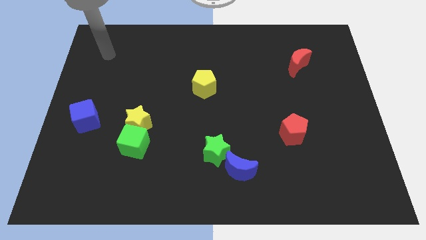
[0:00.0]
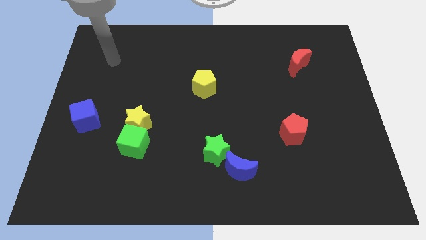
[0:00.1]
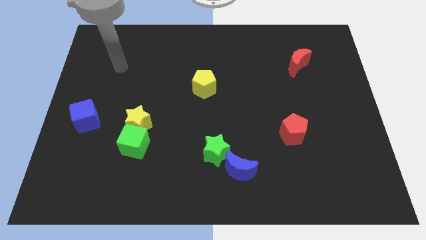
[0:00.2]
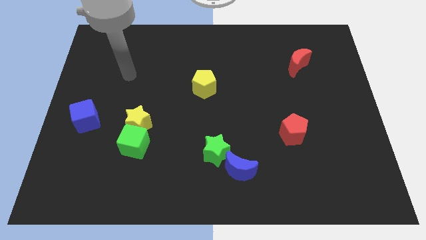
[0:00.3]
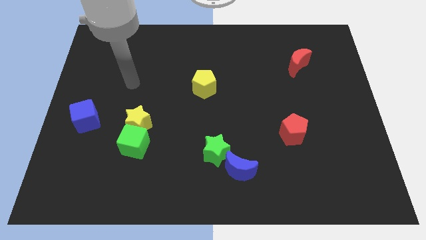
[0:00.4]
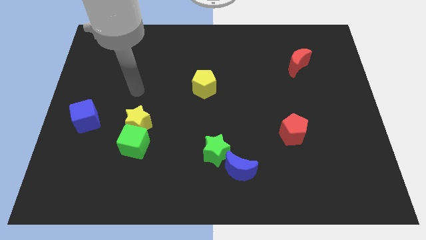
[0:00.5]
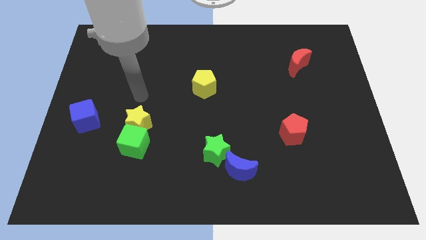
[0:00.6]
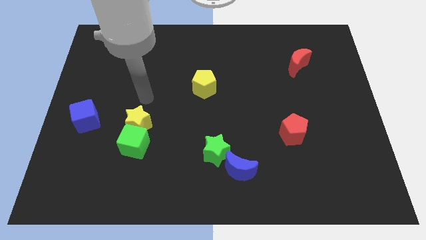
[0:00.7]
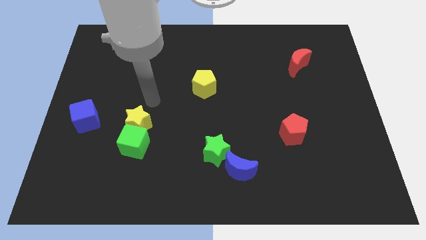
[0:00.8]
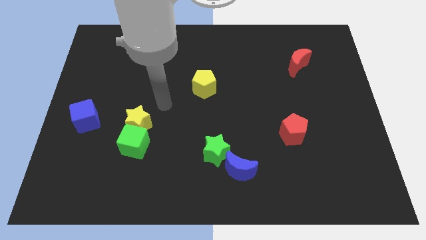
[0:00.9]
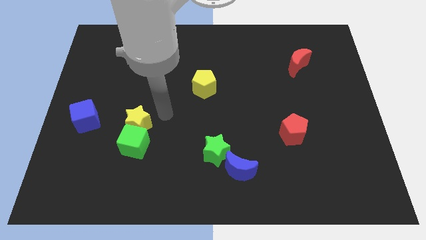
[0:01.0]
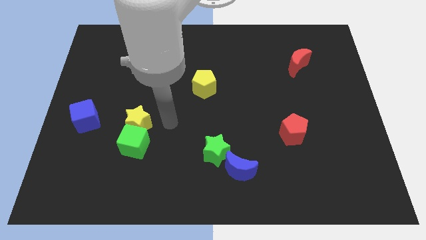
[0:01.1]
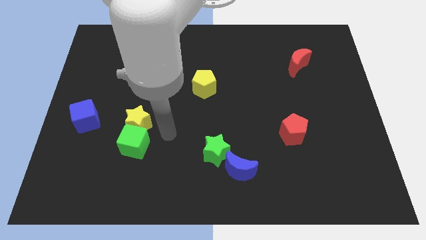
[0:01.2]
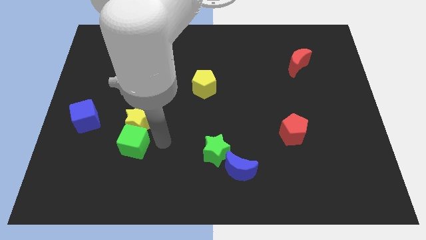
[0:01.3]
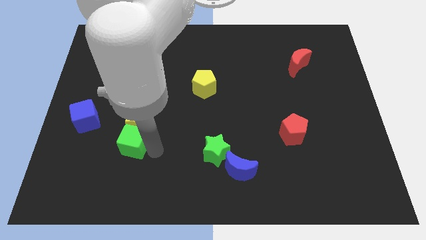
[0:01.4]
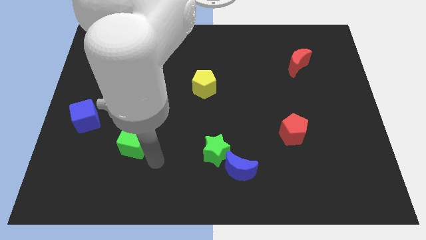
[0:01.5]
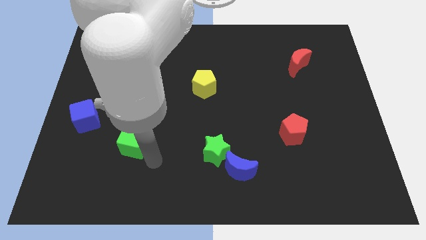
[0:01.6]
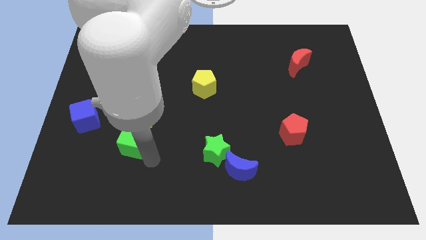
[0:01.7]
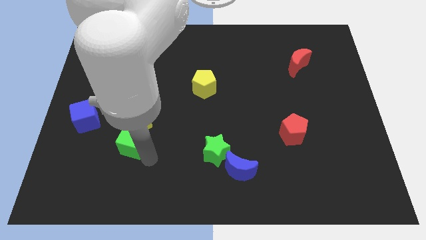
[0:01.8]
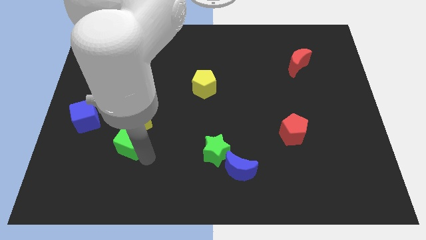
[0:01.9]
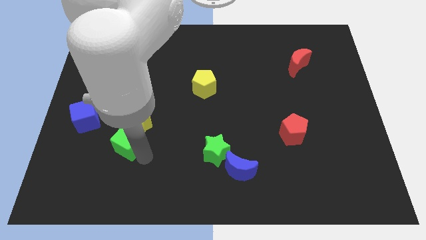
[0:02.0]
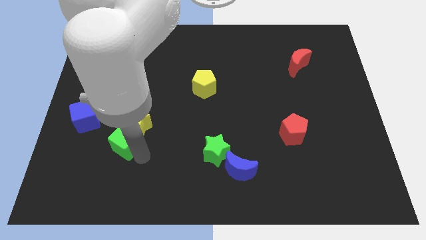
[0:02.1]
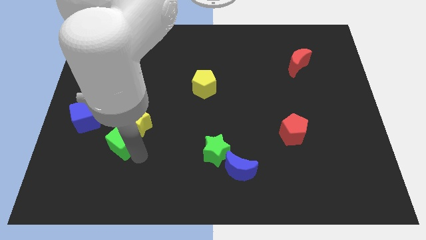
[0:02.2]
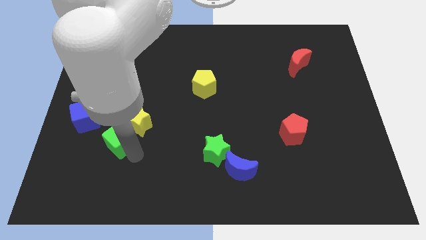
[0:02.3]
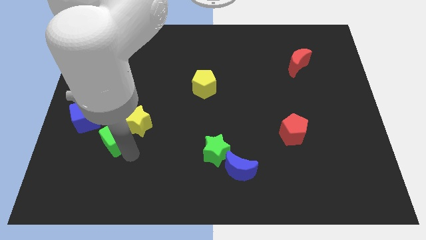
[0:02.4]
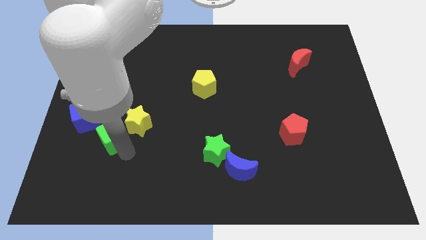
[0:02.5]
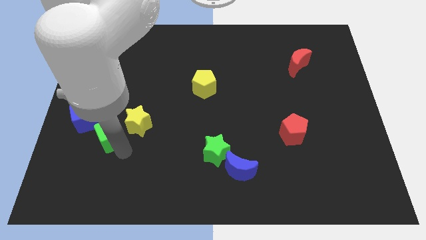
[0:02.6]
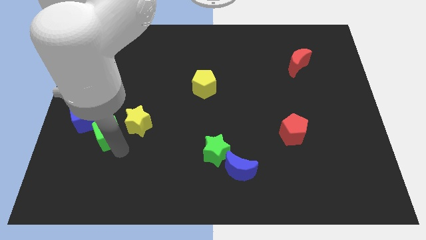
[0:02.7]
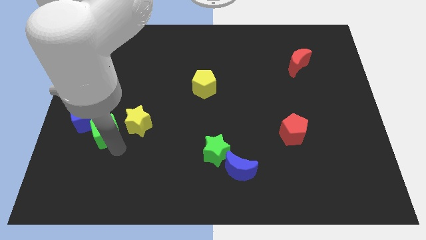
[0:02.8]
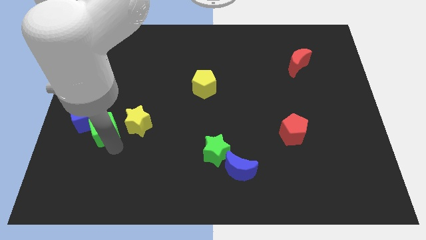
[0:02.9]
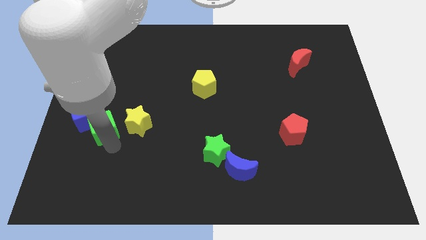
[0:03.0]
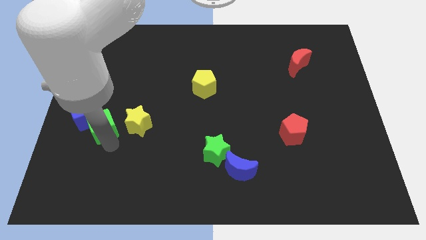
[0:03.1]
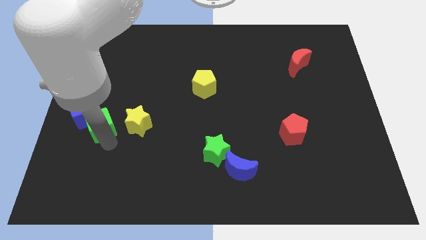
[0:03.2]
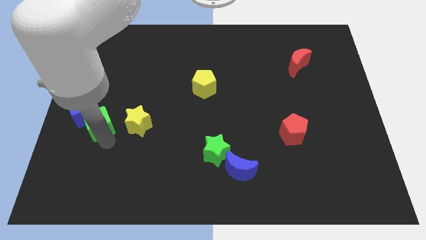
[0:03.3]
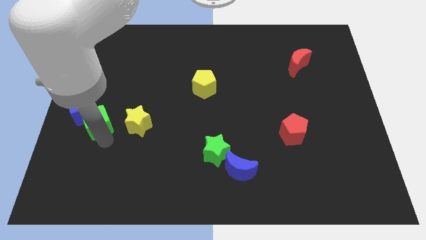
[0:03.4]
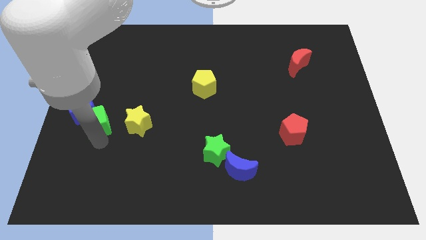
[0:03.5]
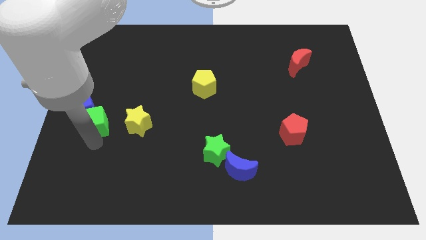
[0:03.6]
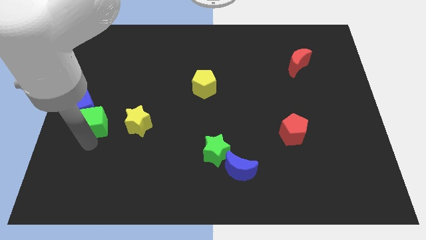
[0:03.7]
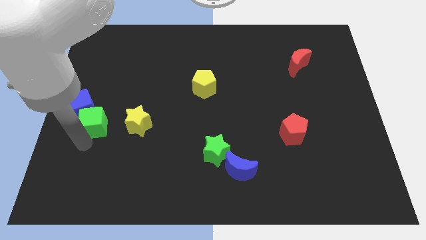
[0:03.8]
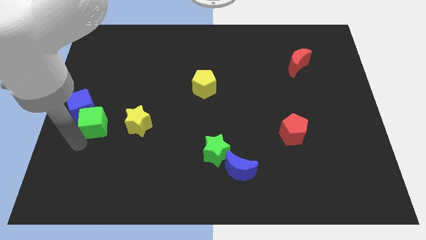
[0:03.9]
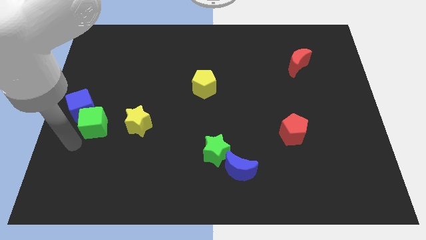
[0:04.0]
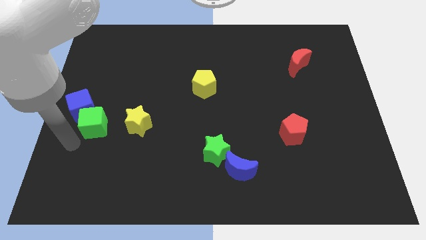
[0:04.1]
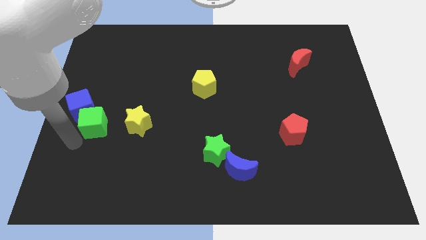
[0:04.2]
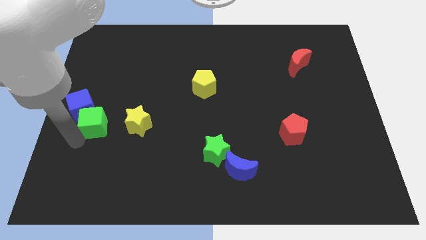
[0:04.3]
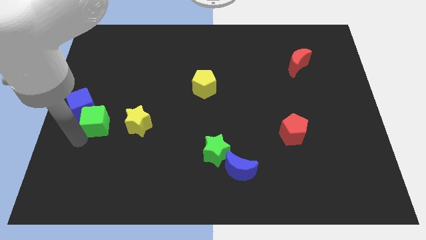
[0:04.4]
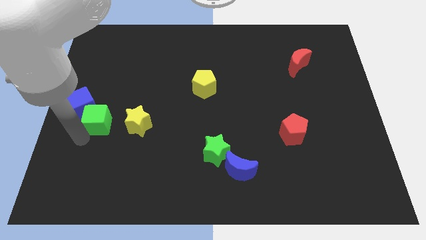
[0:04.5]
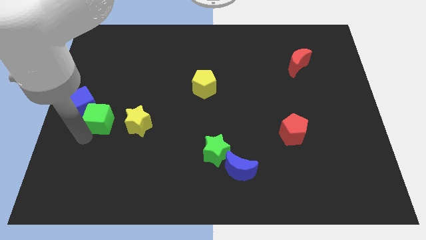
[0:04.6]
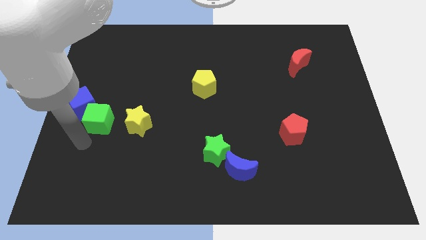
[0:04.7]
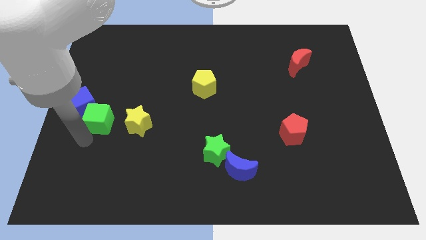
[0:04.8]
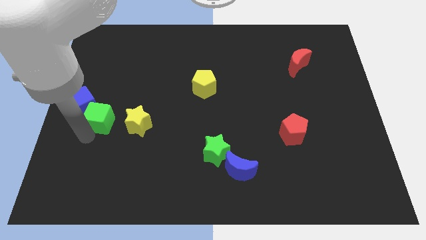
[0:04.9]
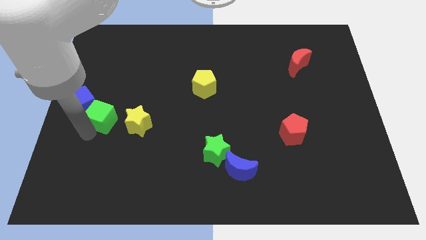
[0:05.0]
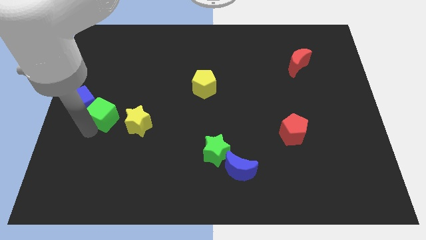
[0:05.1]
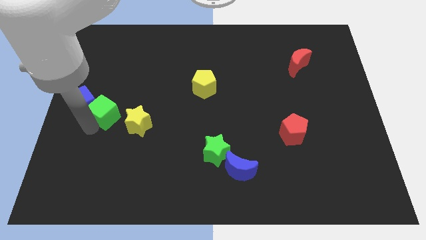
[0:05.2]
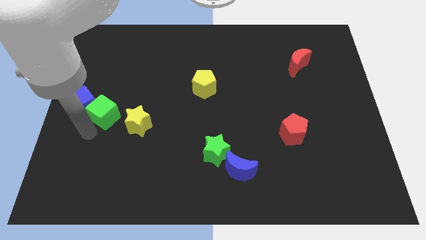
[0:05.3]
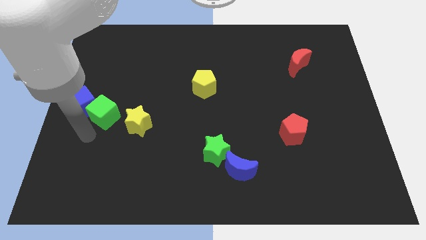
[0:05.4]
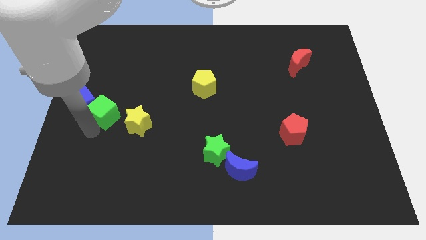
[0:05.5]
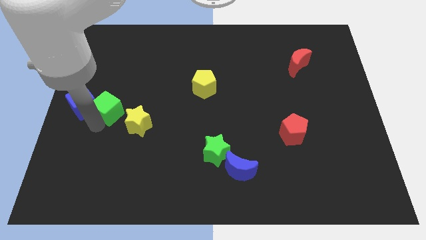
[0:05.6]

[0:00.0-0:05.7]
push the green cube up a little

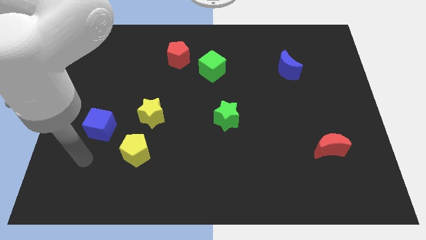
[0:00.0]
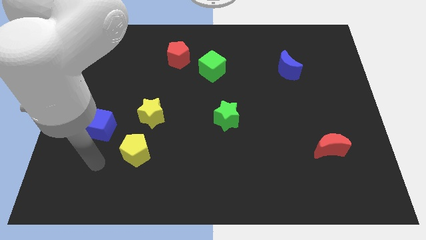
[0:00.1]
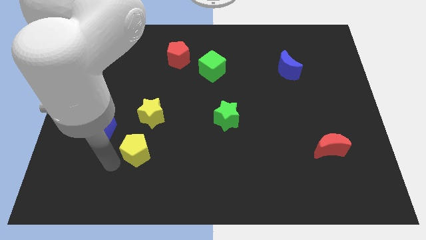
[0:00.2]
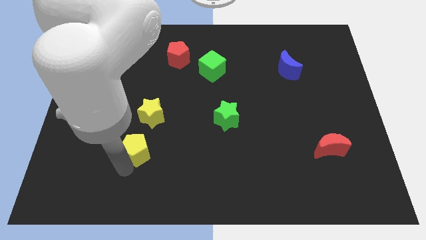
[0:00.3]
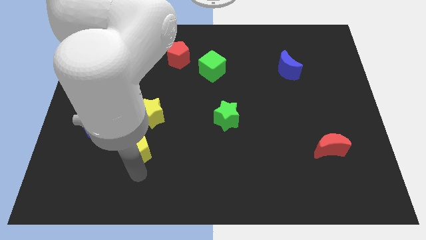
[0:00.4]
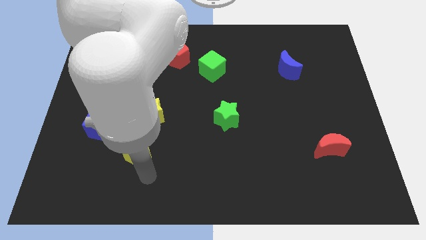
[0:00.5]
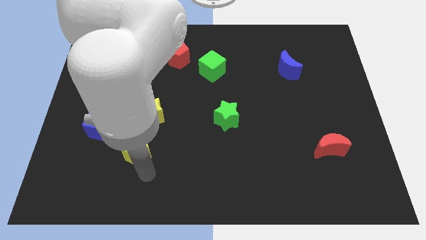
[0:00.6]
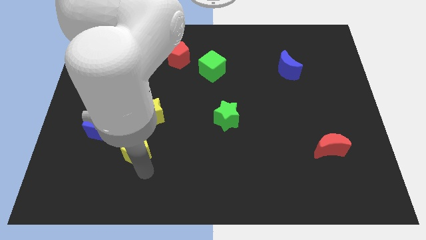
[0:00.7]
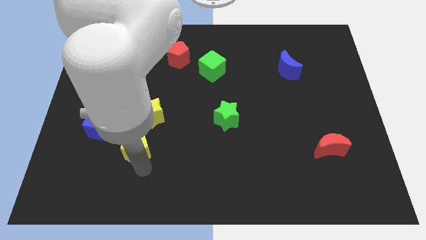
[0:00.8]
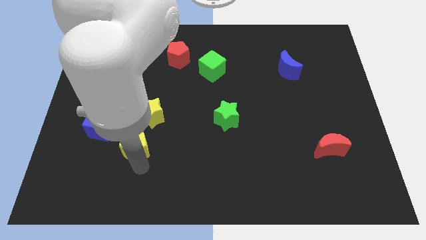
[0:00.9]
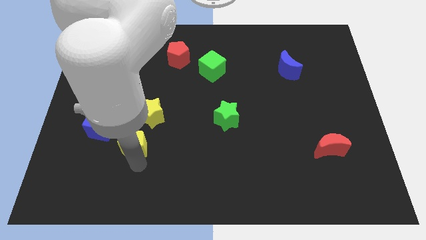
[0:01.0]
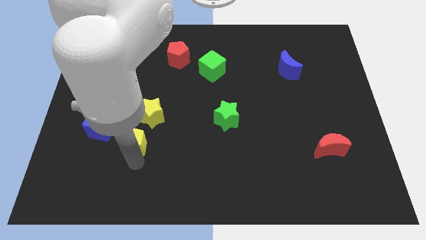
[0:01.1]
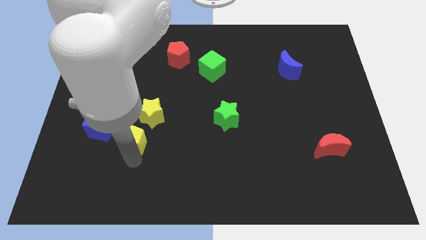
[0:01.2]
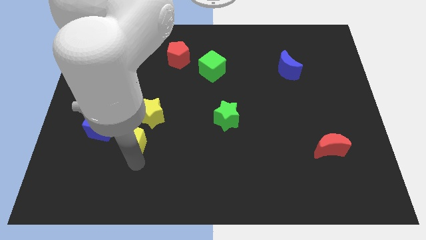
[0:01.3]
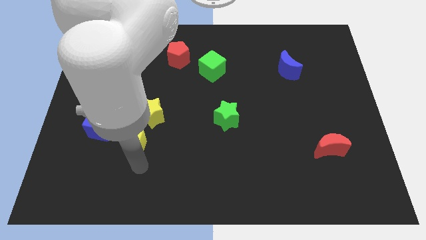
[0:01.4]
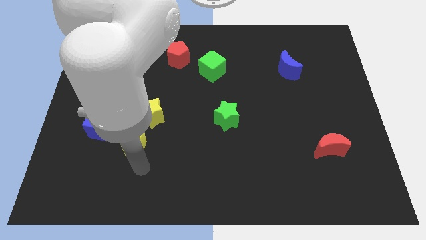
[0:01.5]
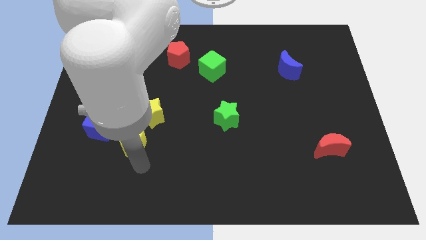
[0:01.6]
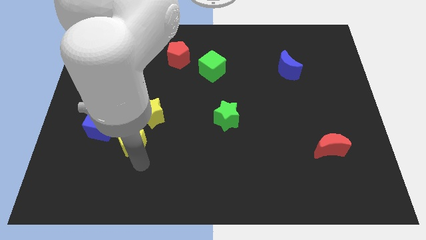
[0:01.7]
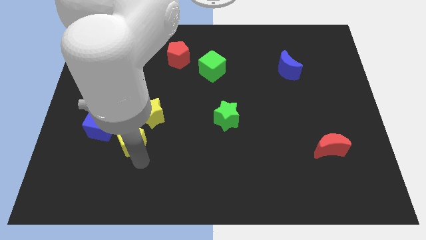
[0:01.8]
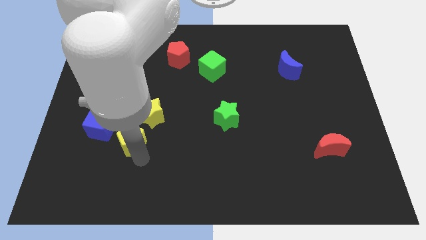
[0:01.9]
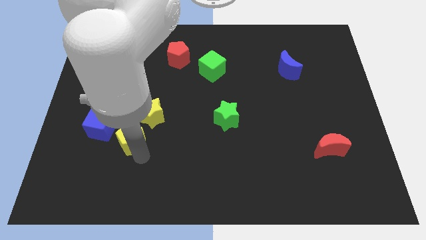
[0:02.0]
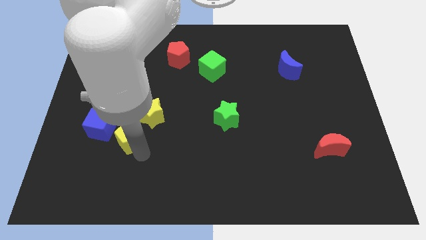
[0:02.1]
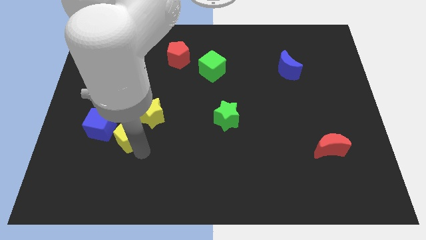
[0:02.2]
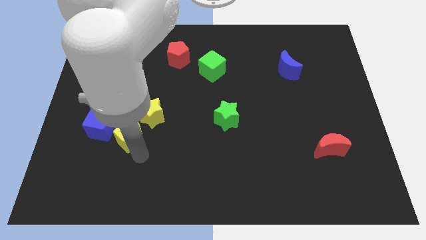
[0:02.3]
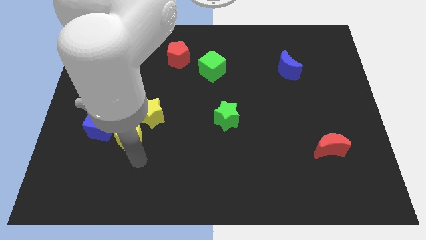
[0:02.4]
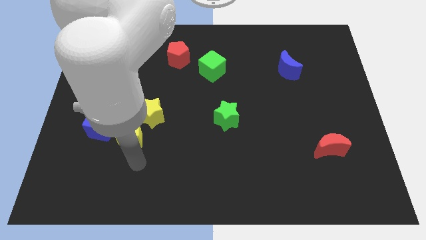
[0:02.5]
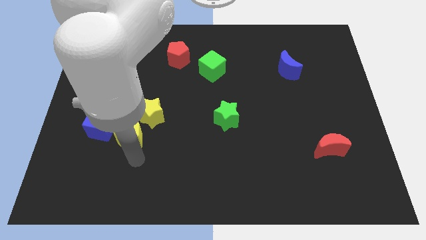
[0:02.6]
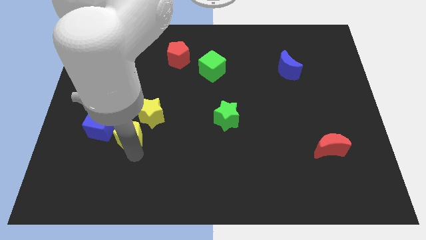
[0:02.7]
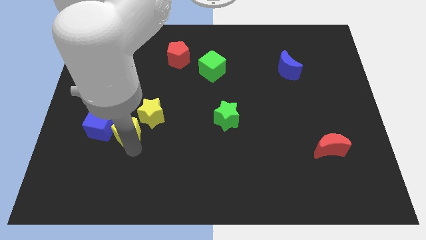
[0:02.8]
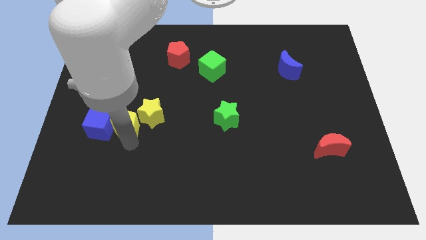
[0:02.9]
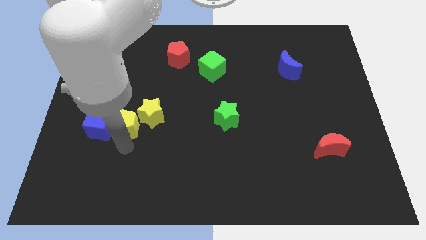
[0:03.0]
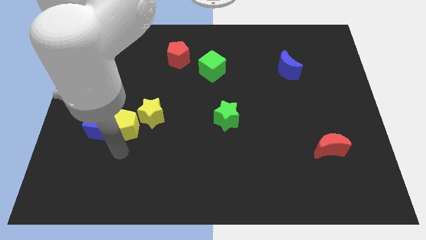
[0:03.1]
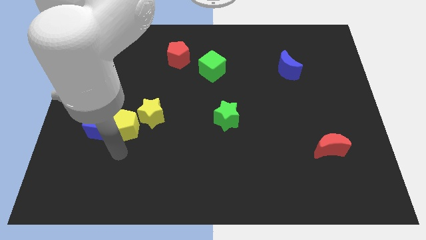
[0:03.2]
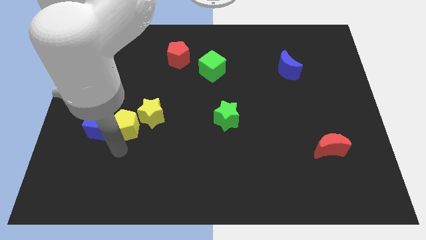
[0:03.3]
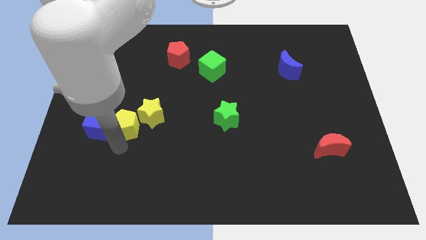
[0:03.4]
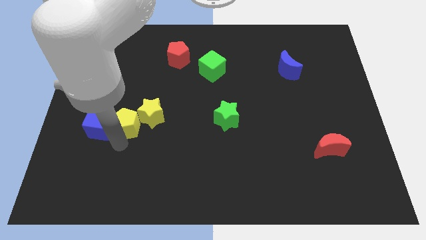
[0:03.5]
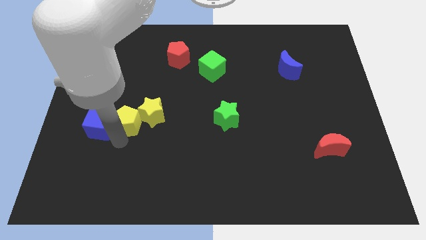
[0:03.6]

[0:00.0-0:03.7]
push the yellow pentagon up slightly
